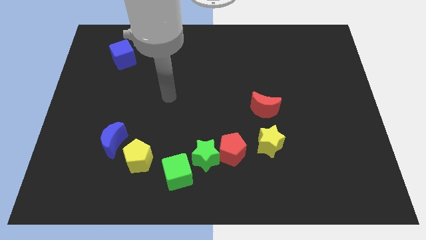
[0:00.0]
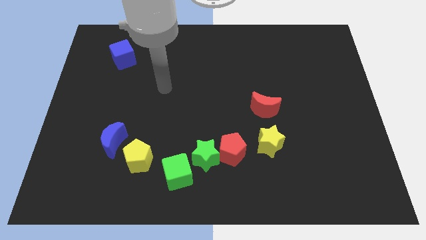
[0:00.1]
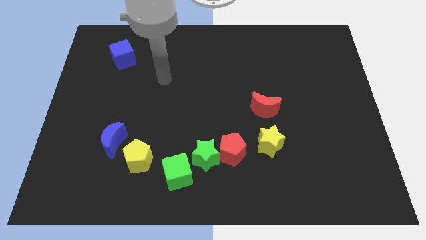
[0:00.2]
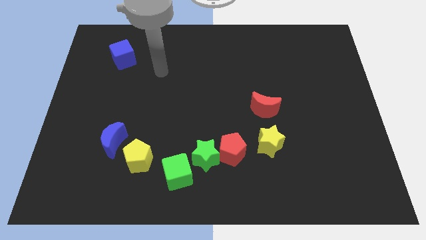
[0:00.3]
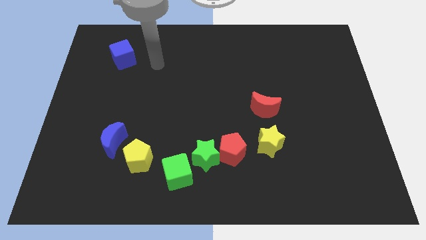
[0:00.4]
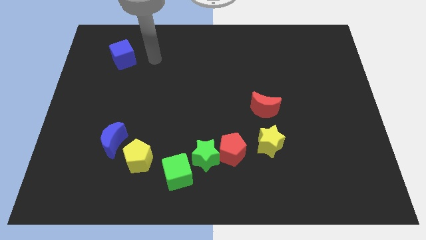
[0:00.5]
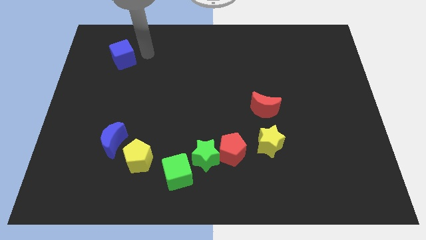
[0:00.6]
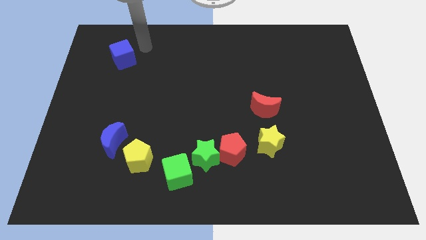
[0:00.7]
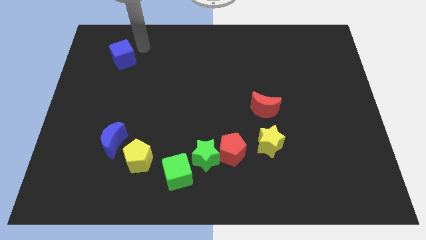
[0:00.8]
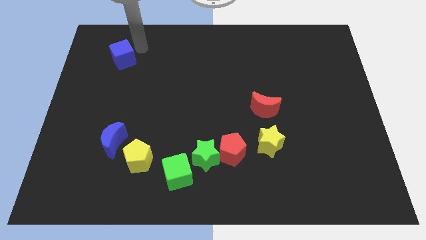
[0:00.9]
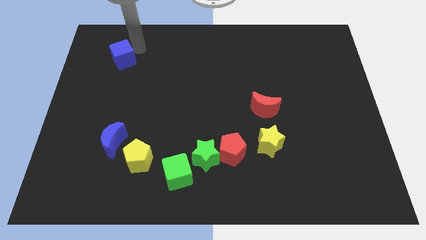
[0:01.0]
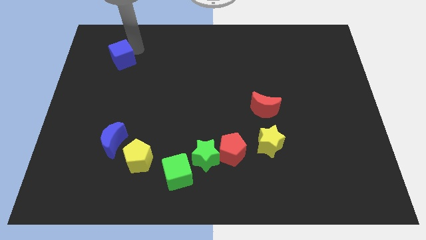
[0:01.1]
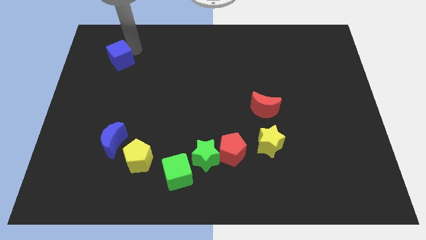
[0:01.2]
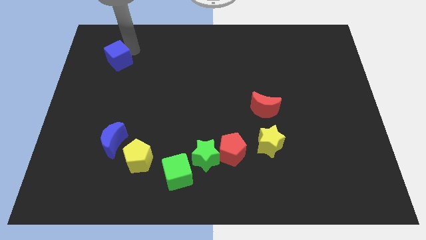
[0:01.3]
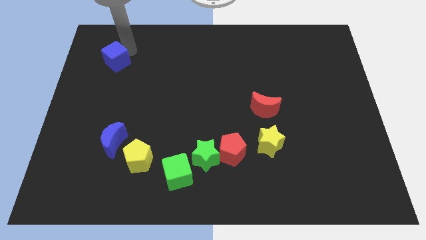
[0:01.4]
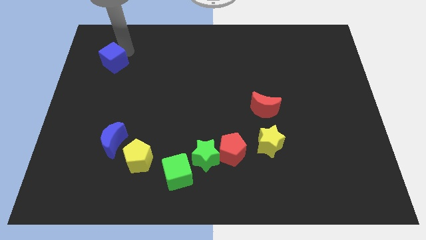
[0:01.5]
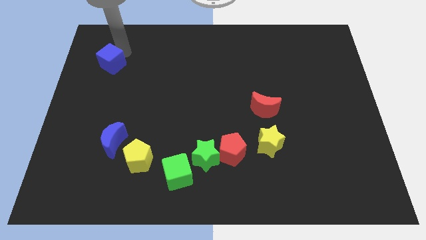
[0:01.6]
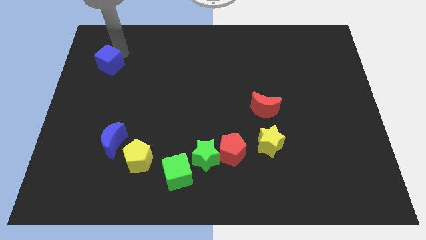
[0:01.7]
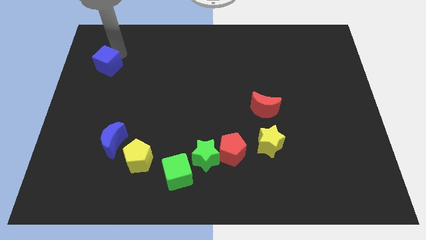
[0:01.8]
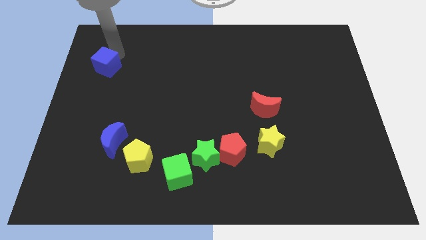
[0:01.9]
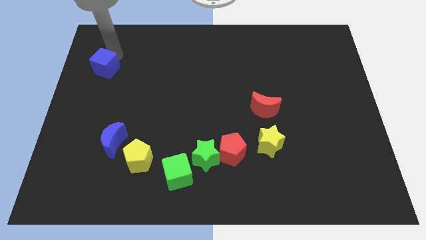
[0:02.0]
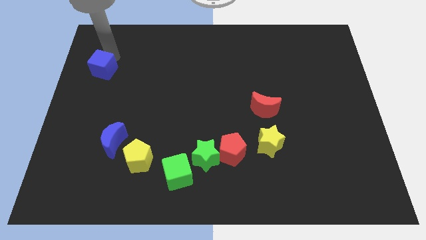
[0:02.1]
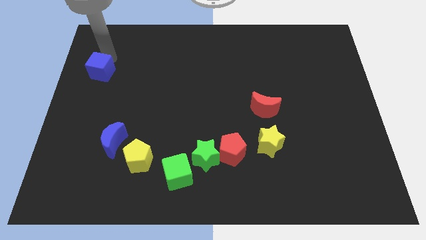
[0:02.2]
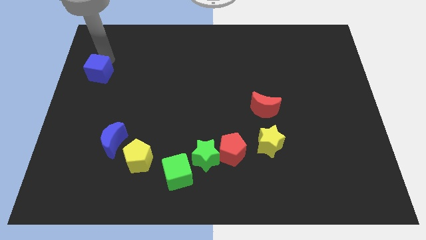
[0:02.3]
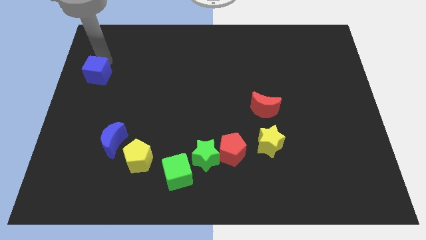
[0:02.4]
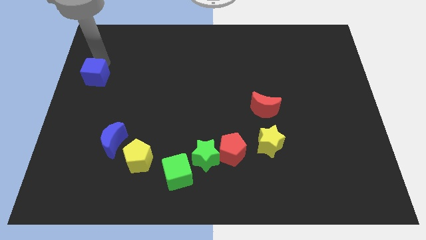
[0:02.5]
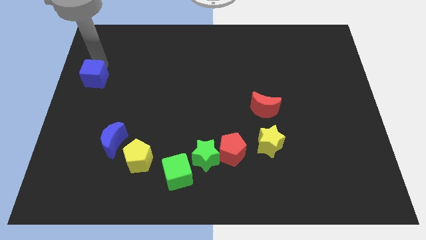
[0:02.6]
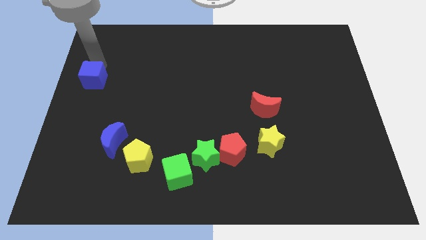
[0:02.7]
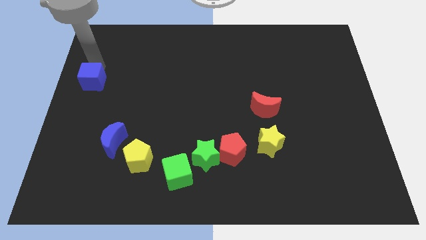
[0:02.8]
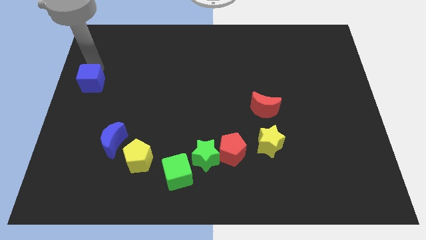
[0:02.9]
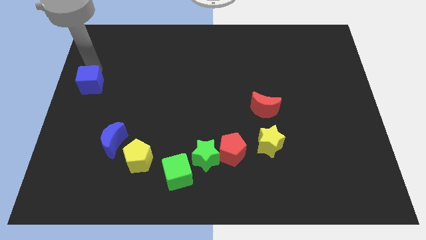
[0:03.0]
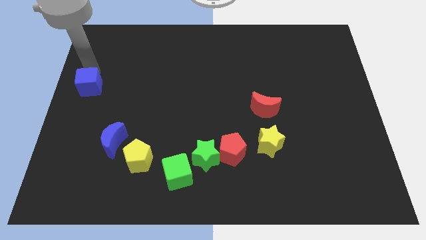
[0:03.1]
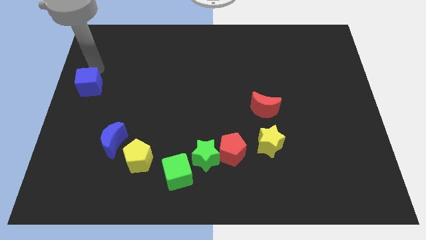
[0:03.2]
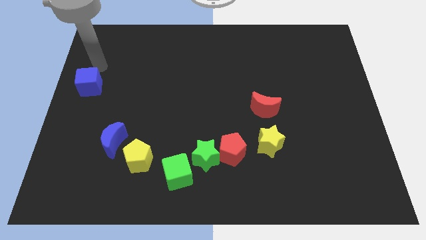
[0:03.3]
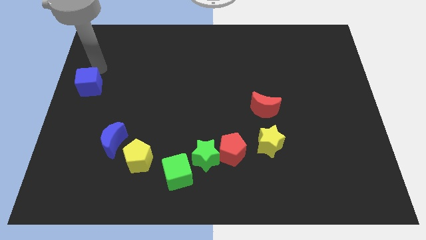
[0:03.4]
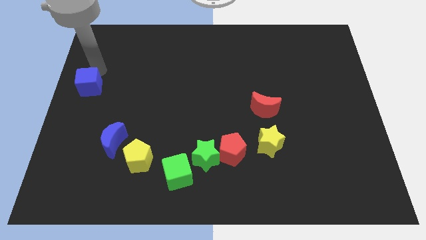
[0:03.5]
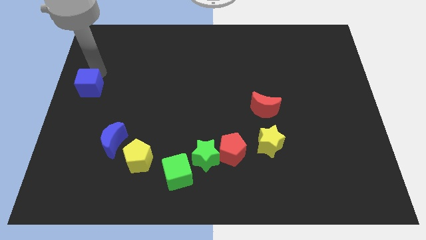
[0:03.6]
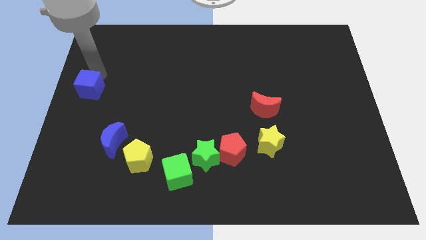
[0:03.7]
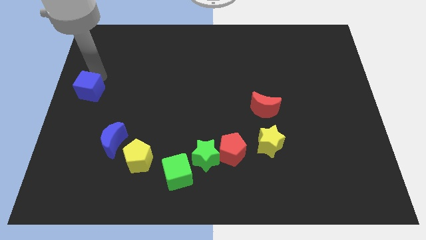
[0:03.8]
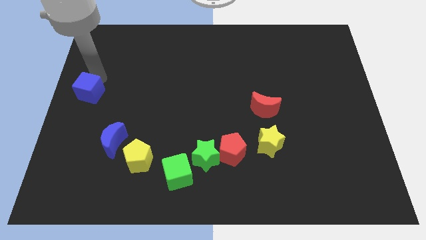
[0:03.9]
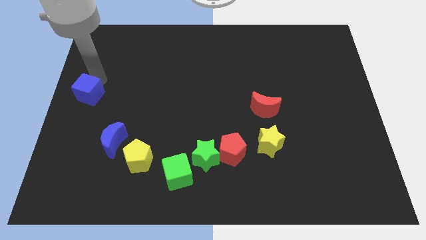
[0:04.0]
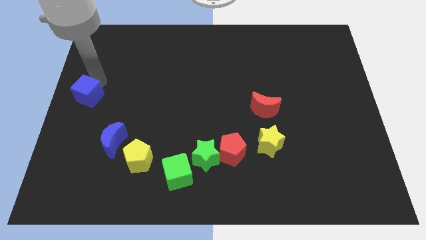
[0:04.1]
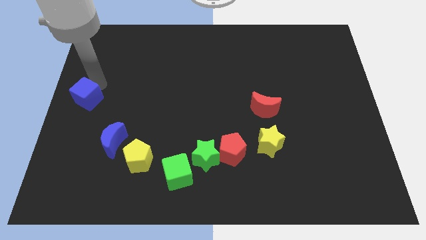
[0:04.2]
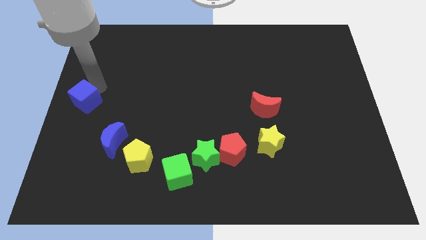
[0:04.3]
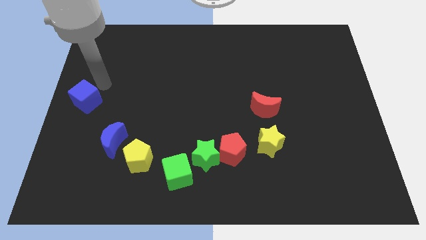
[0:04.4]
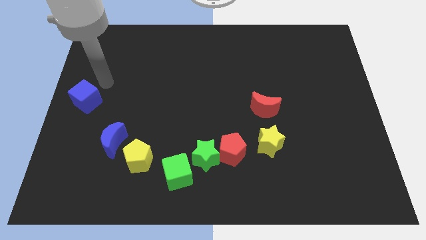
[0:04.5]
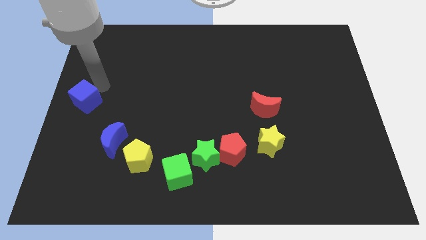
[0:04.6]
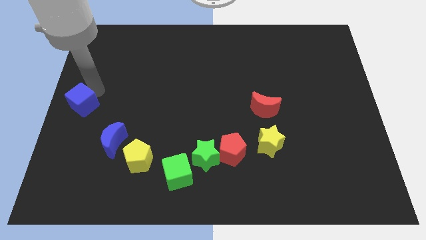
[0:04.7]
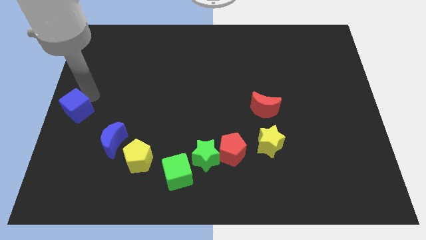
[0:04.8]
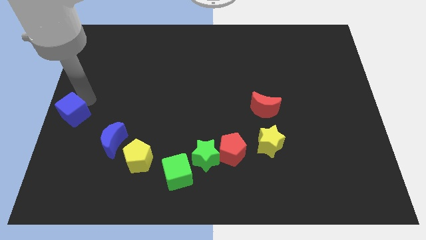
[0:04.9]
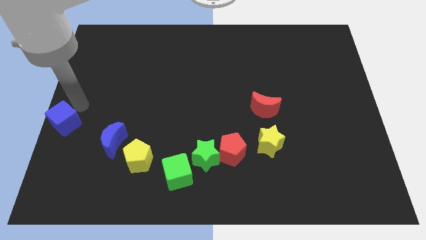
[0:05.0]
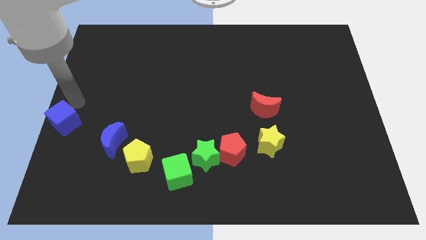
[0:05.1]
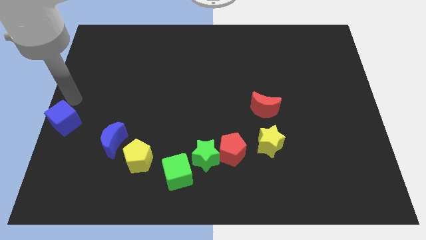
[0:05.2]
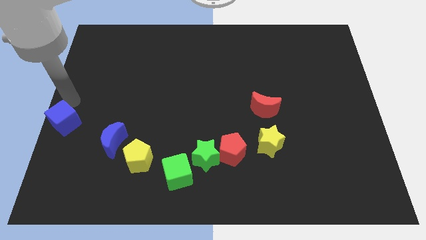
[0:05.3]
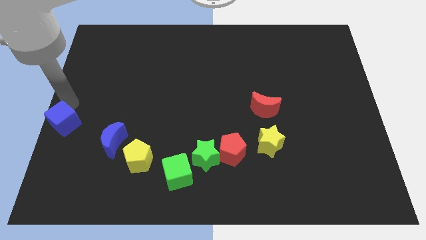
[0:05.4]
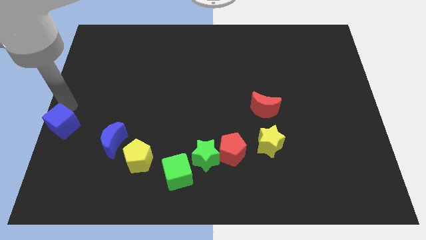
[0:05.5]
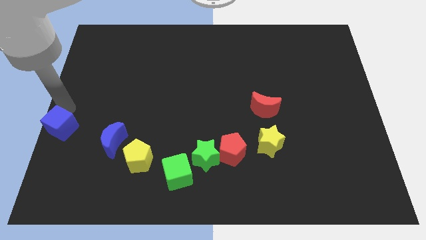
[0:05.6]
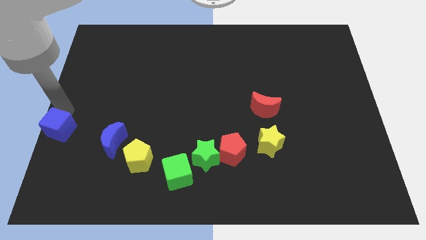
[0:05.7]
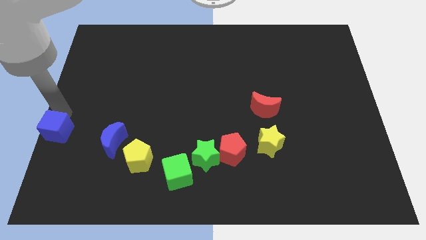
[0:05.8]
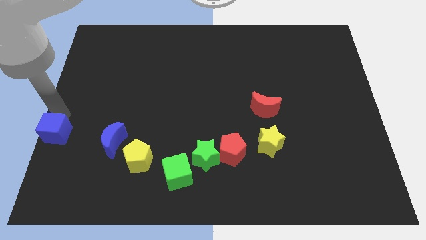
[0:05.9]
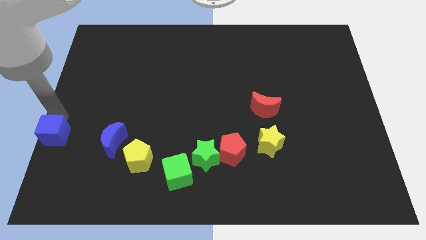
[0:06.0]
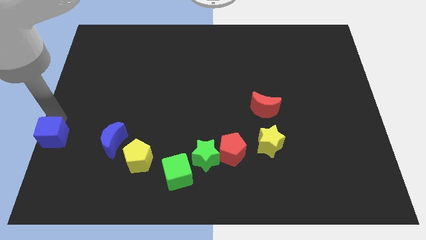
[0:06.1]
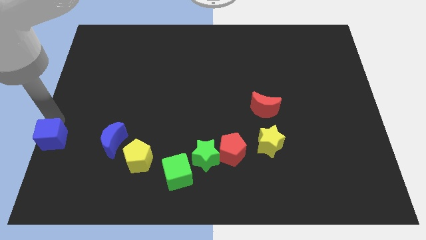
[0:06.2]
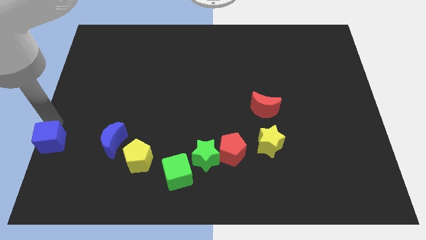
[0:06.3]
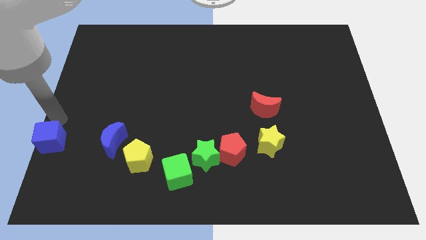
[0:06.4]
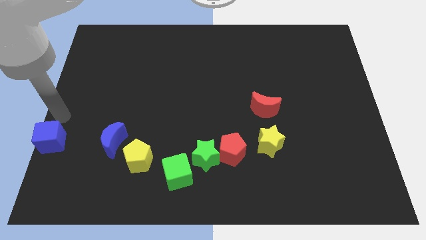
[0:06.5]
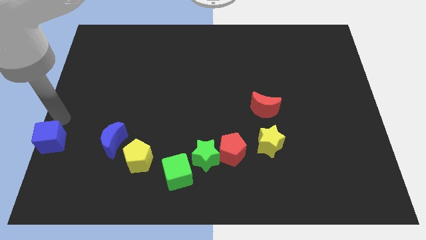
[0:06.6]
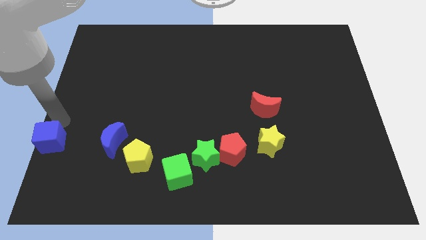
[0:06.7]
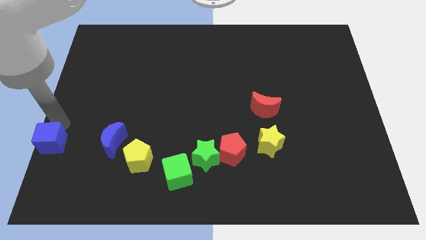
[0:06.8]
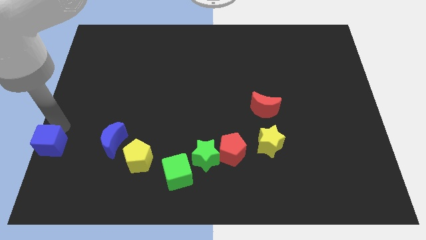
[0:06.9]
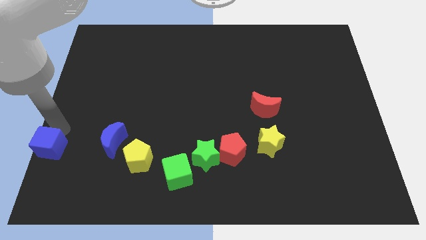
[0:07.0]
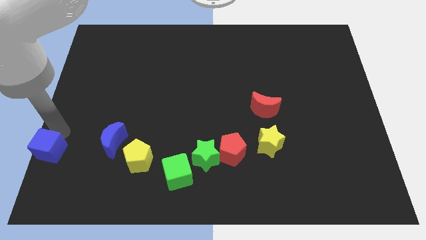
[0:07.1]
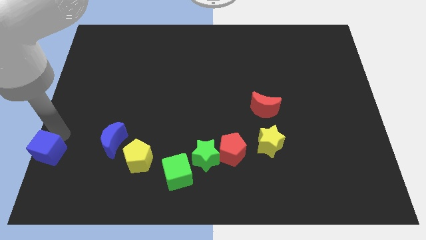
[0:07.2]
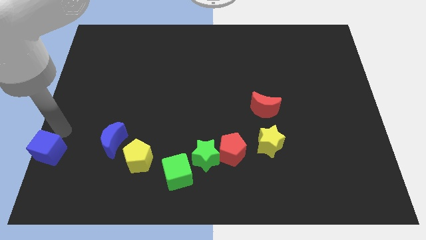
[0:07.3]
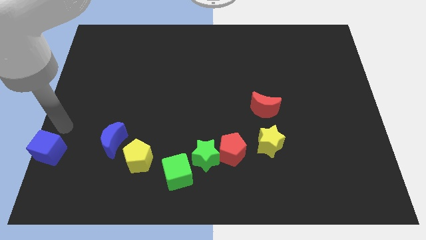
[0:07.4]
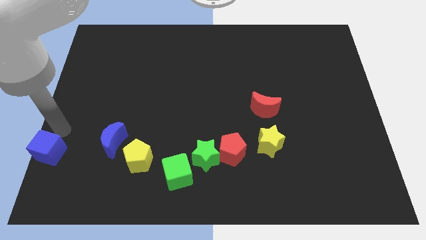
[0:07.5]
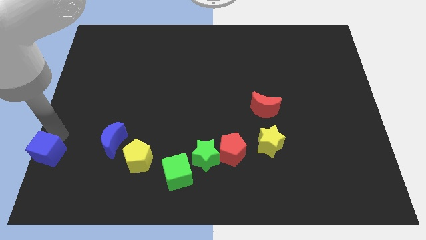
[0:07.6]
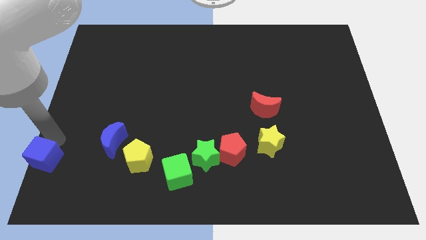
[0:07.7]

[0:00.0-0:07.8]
push the blue cube to the lower left corner
